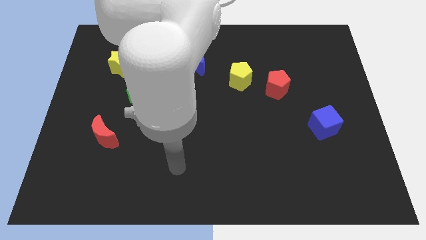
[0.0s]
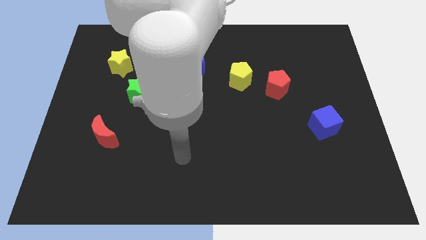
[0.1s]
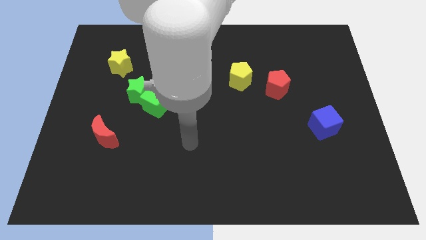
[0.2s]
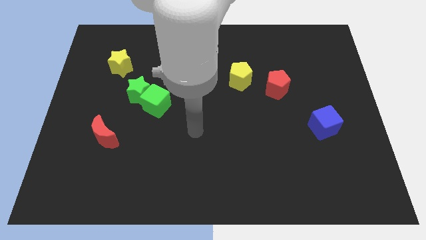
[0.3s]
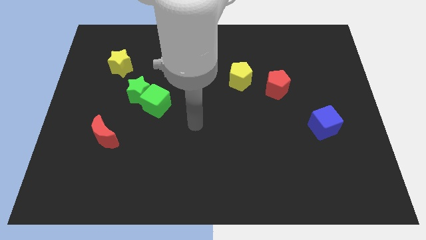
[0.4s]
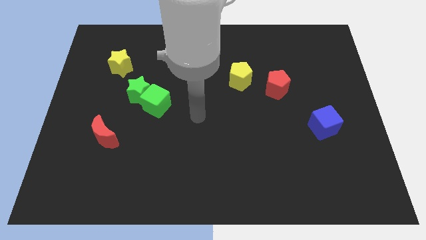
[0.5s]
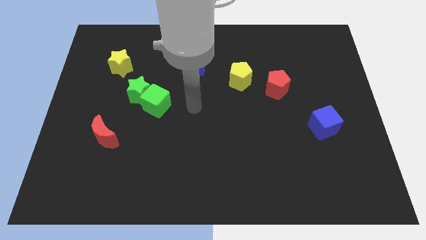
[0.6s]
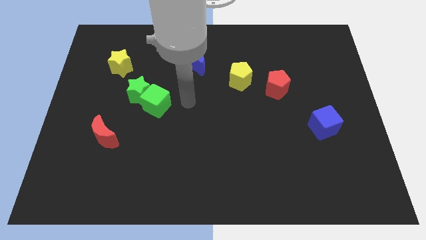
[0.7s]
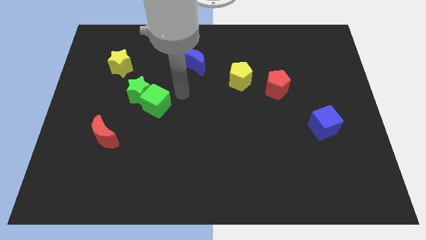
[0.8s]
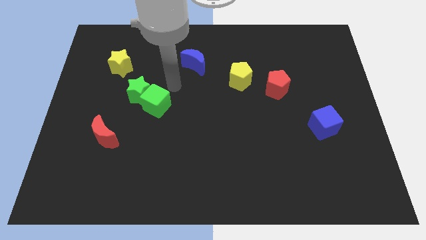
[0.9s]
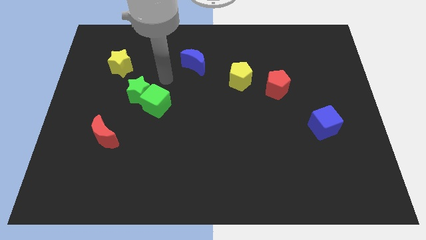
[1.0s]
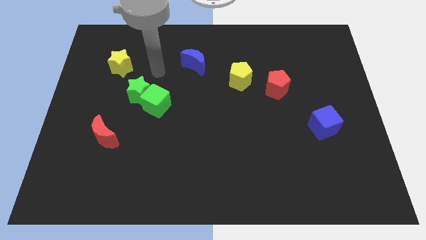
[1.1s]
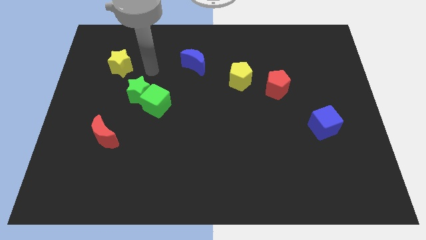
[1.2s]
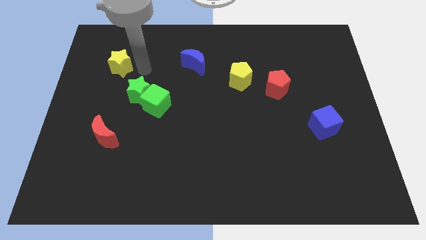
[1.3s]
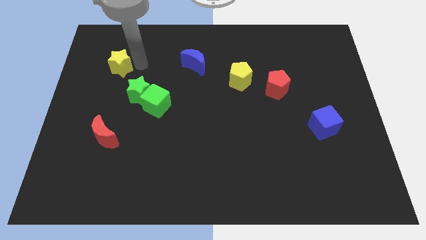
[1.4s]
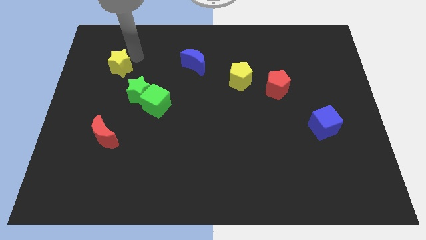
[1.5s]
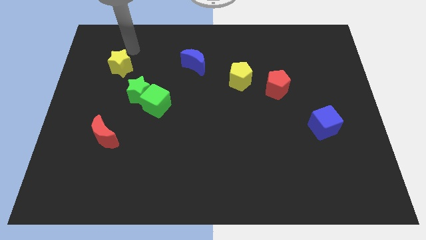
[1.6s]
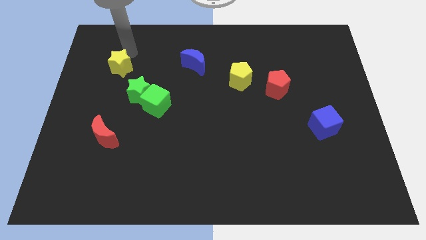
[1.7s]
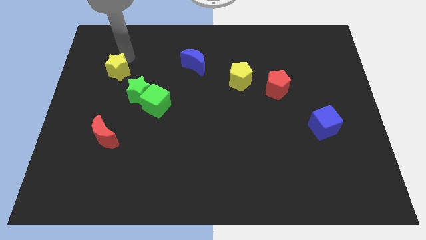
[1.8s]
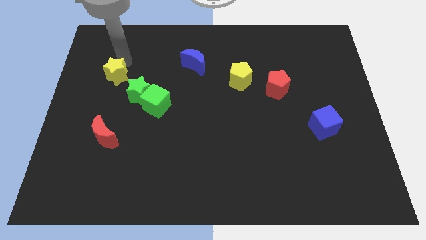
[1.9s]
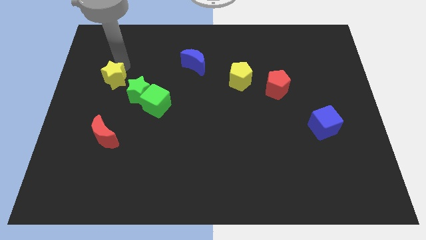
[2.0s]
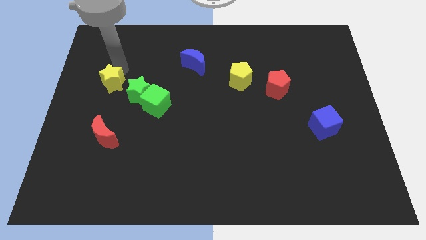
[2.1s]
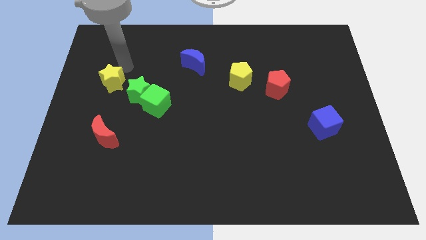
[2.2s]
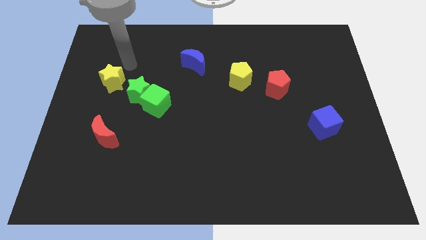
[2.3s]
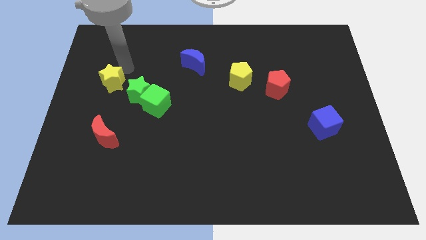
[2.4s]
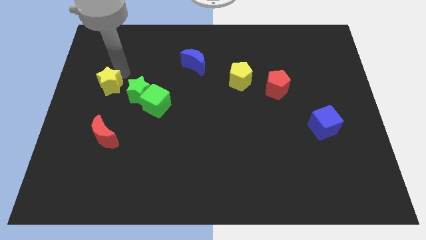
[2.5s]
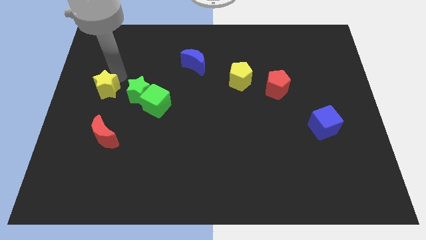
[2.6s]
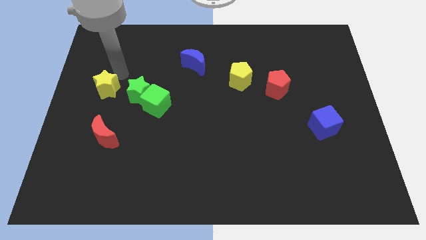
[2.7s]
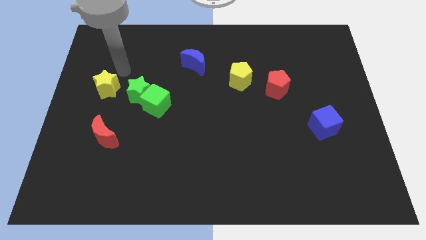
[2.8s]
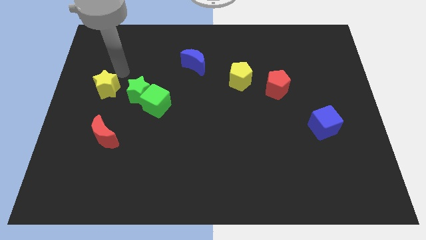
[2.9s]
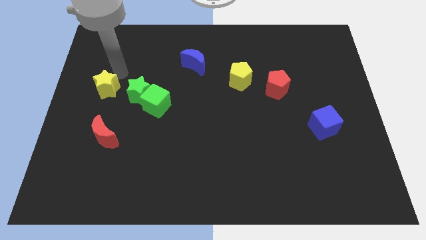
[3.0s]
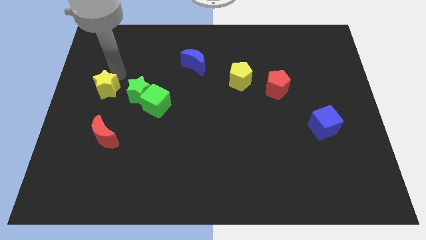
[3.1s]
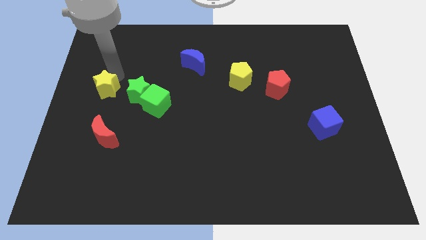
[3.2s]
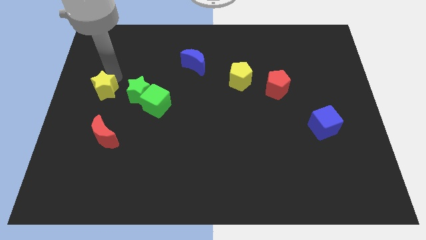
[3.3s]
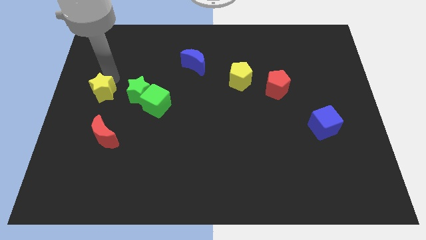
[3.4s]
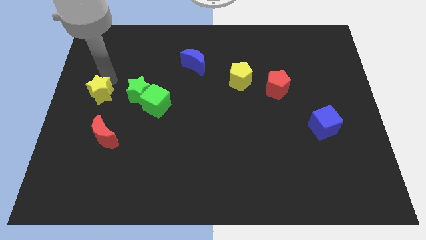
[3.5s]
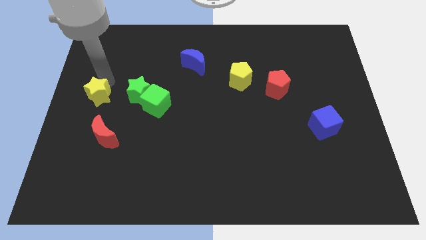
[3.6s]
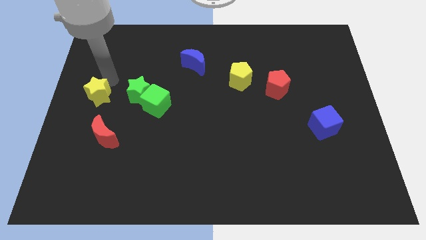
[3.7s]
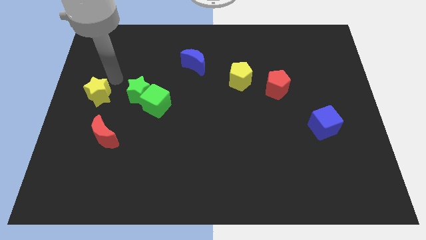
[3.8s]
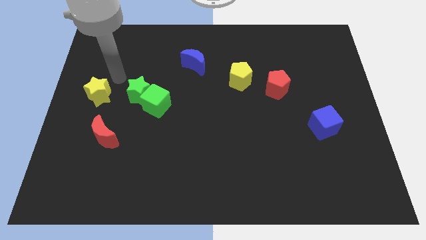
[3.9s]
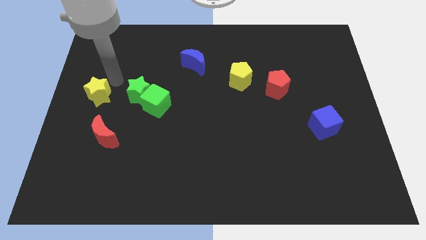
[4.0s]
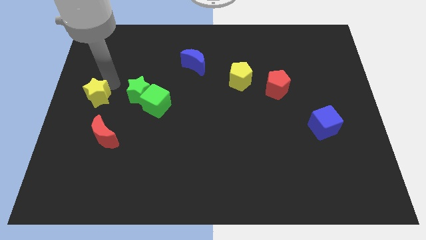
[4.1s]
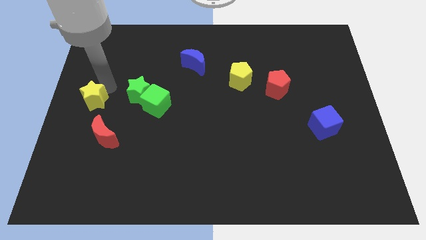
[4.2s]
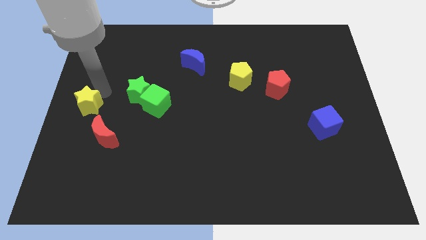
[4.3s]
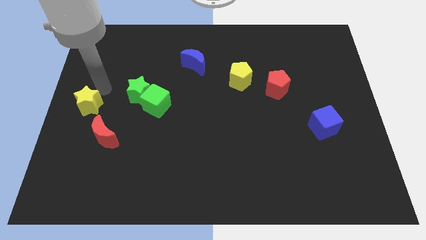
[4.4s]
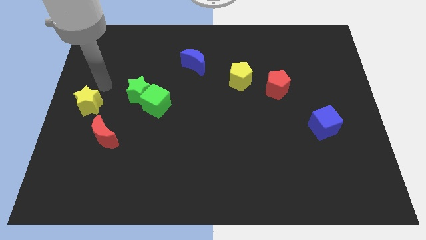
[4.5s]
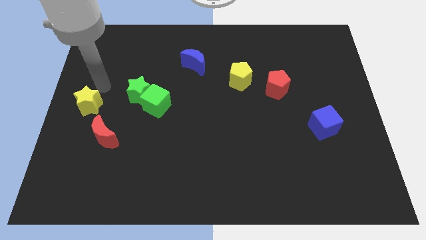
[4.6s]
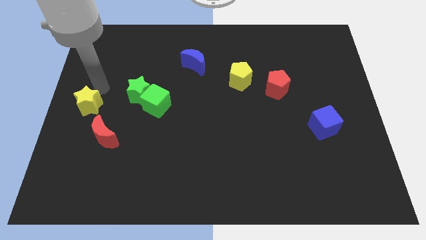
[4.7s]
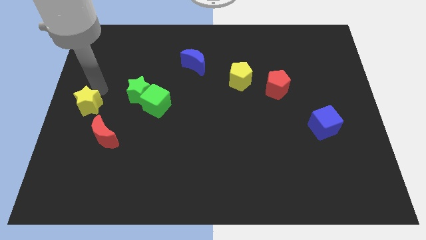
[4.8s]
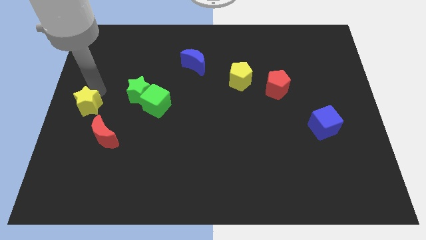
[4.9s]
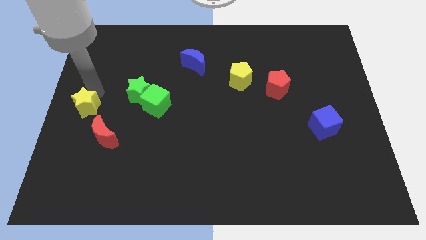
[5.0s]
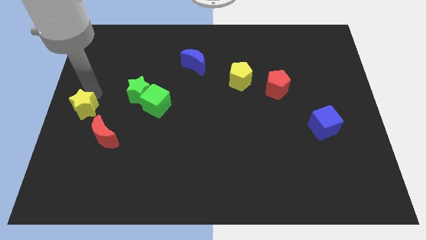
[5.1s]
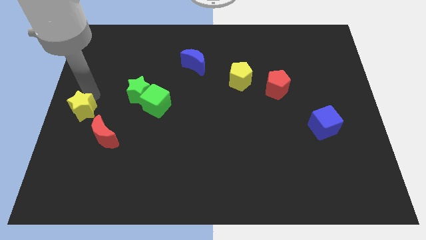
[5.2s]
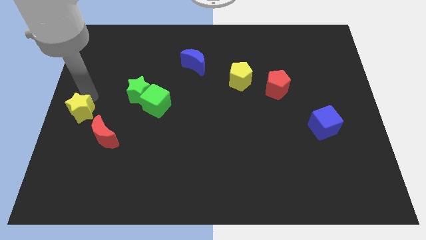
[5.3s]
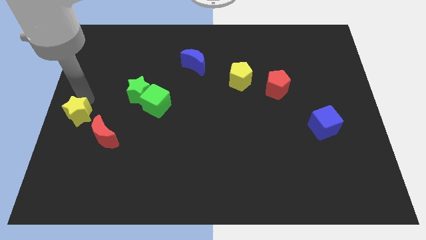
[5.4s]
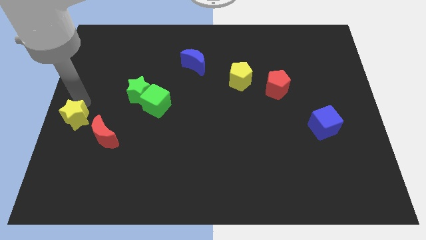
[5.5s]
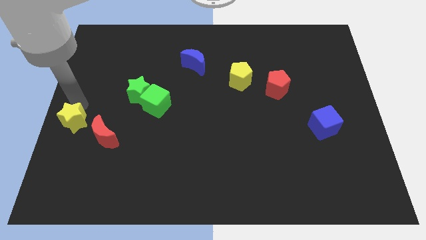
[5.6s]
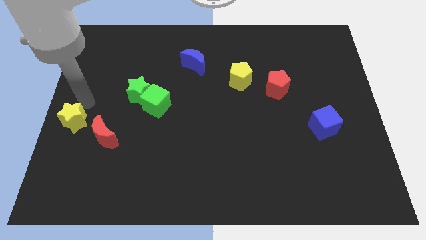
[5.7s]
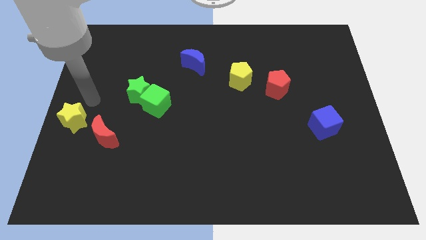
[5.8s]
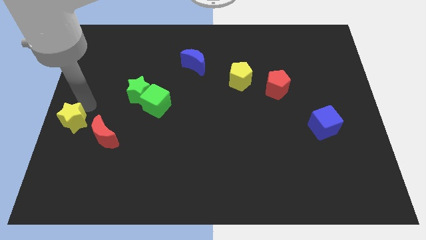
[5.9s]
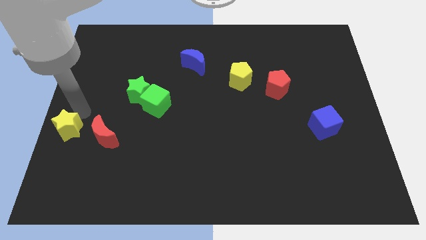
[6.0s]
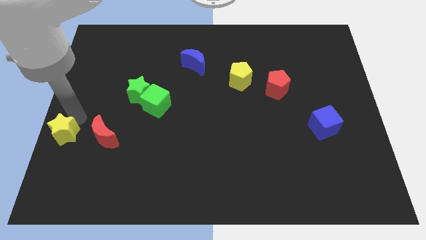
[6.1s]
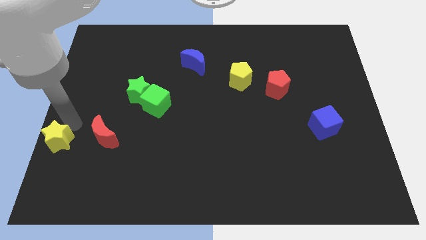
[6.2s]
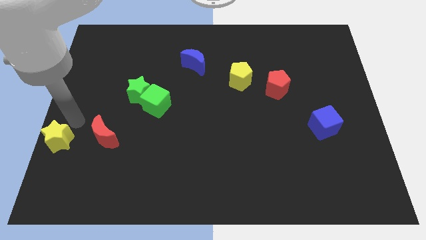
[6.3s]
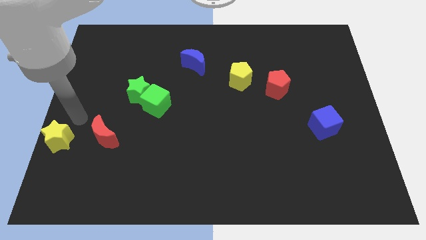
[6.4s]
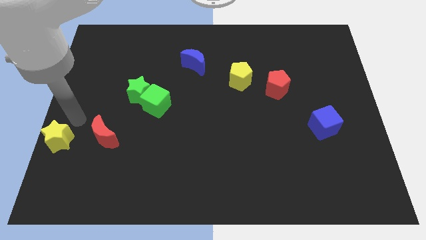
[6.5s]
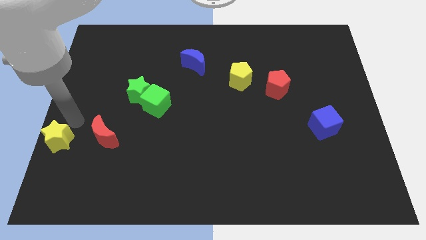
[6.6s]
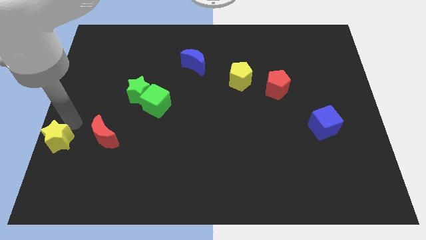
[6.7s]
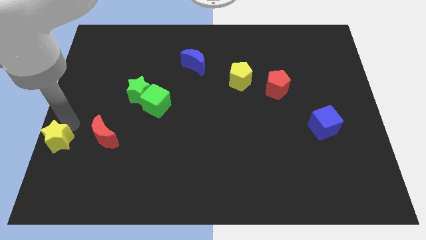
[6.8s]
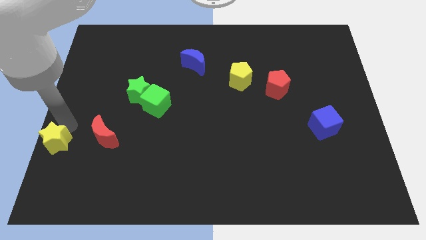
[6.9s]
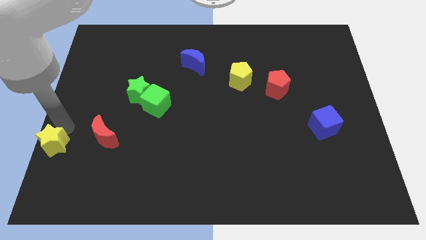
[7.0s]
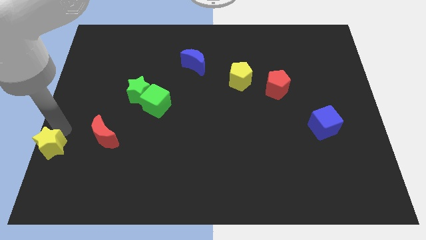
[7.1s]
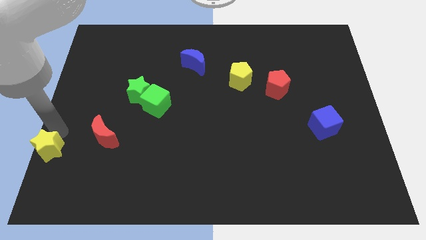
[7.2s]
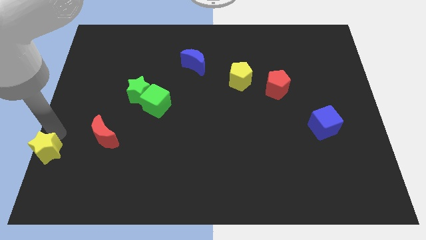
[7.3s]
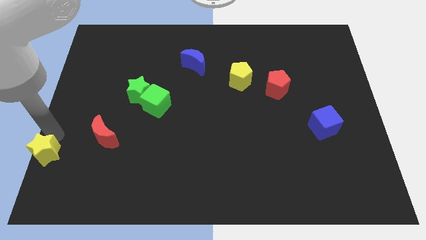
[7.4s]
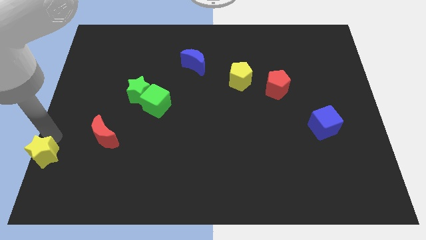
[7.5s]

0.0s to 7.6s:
move the yellow star to the lower left corner
